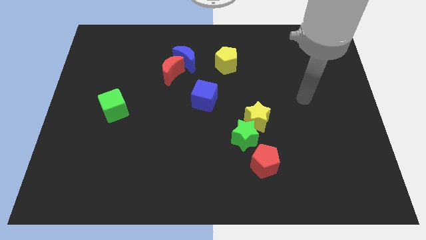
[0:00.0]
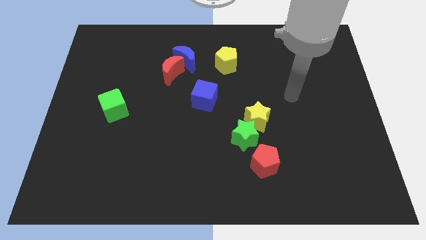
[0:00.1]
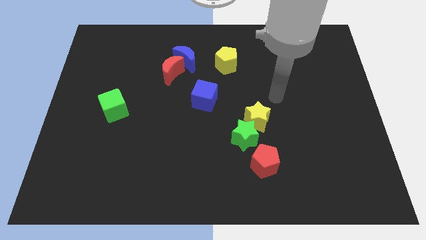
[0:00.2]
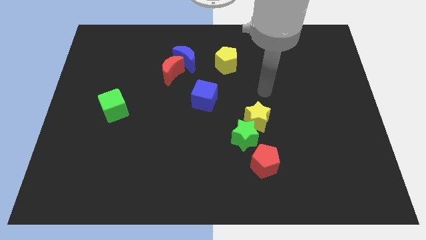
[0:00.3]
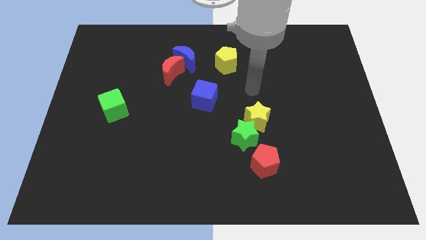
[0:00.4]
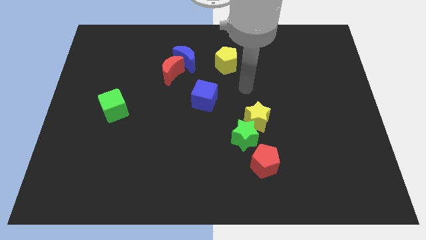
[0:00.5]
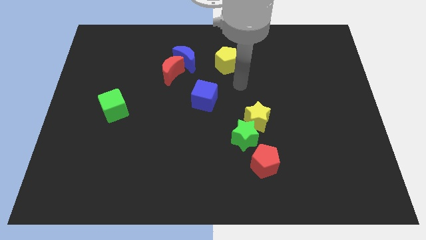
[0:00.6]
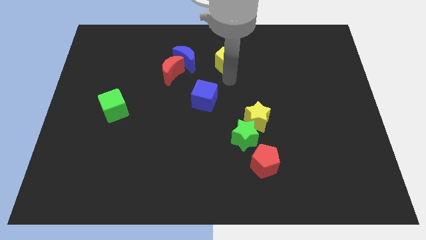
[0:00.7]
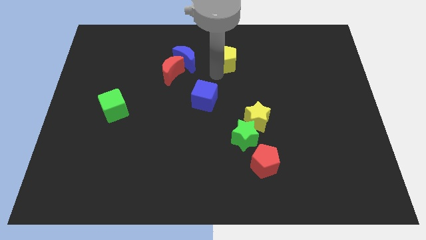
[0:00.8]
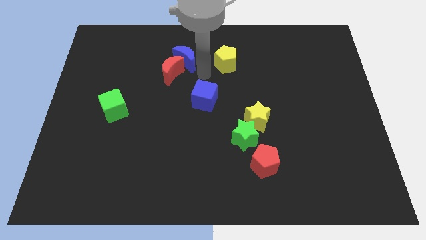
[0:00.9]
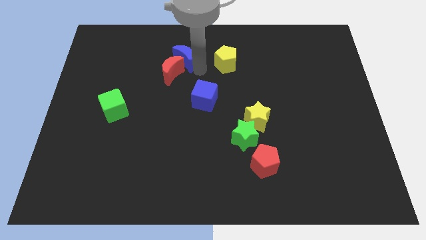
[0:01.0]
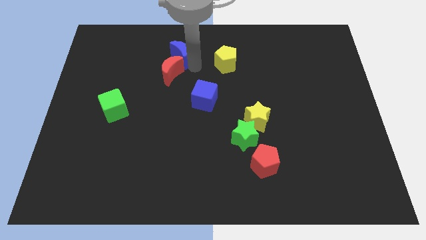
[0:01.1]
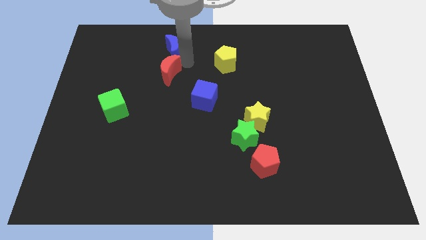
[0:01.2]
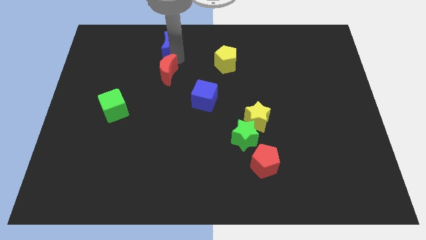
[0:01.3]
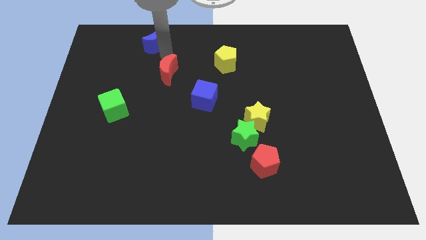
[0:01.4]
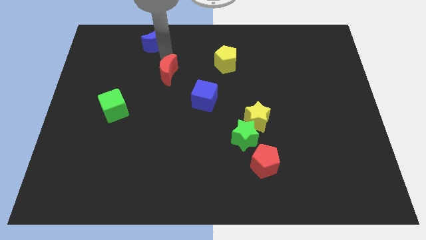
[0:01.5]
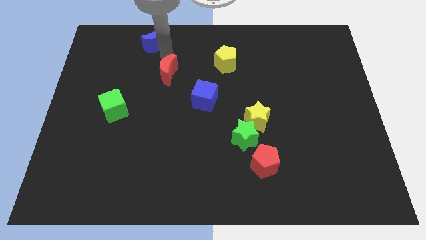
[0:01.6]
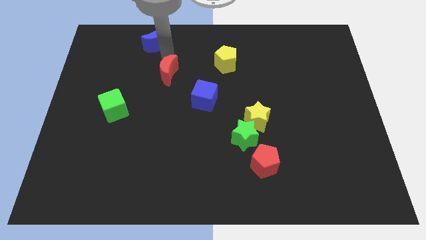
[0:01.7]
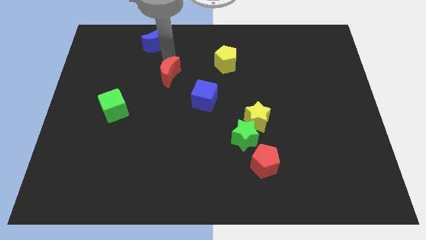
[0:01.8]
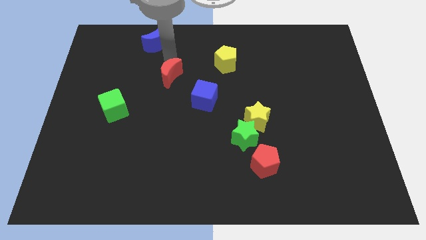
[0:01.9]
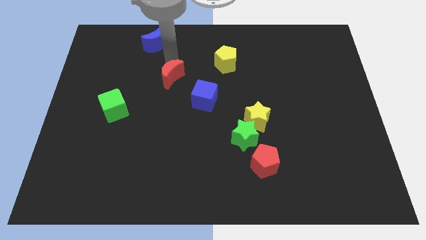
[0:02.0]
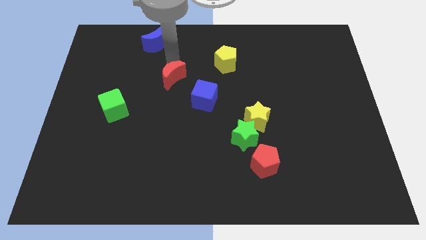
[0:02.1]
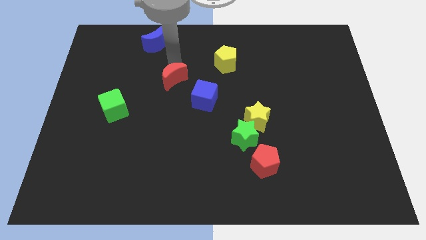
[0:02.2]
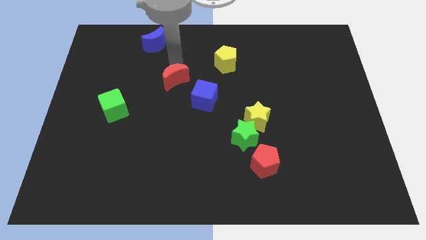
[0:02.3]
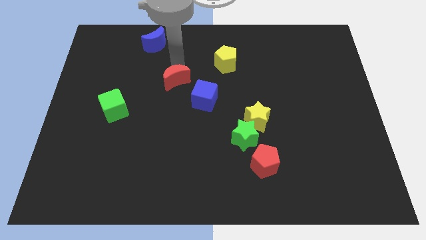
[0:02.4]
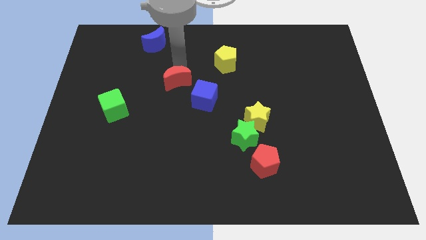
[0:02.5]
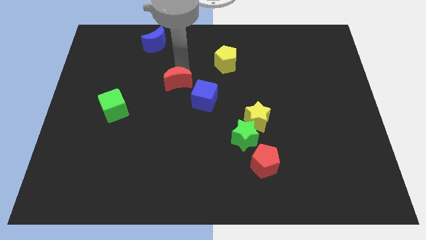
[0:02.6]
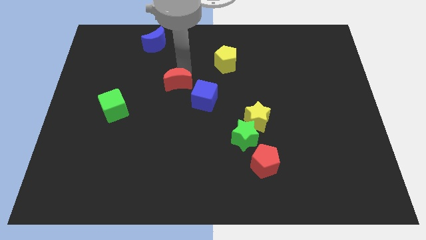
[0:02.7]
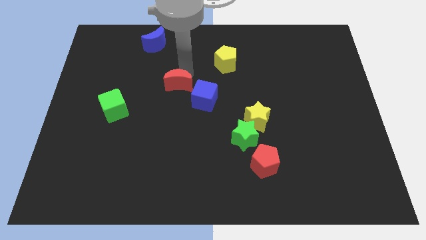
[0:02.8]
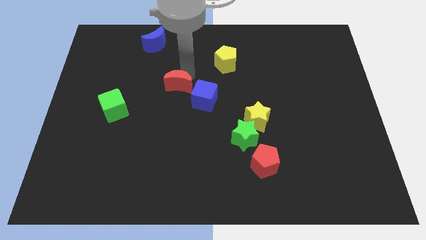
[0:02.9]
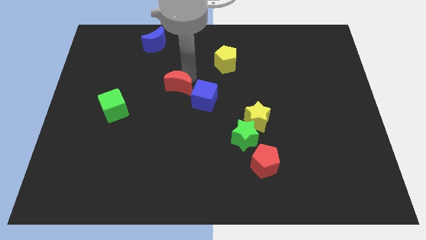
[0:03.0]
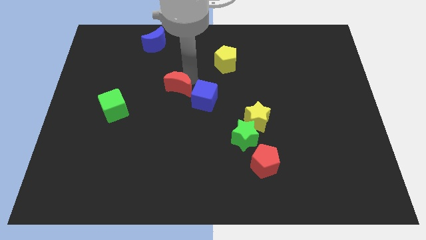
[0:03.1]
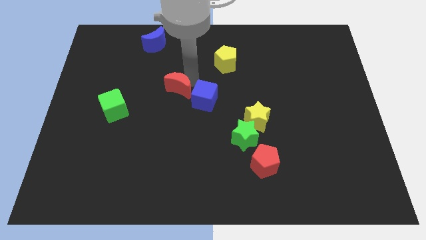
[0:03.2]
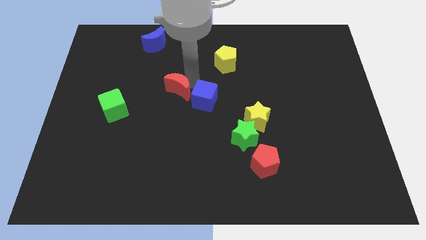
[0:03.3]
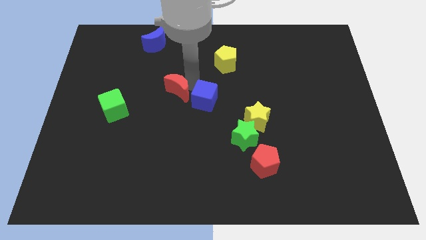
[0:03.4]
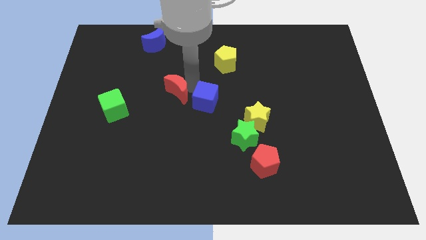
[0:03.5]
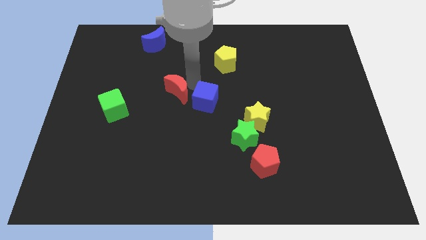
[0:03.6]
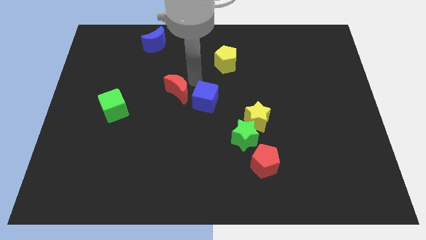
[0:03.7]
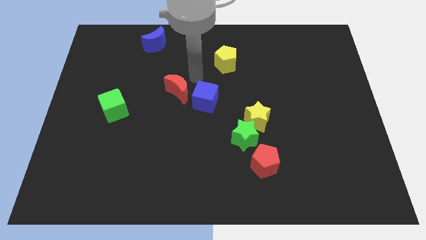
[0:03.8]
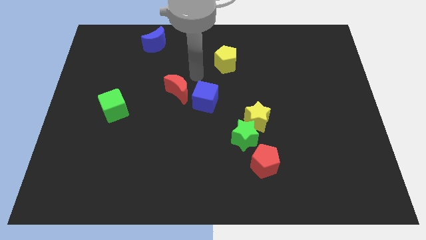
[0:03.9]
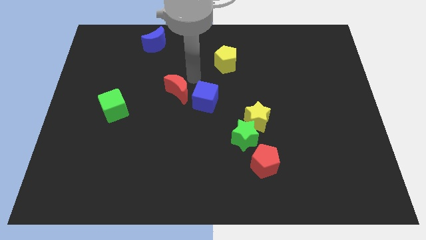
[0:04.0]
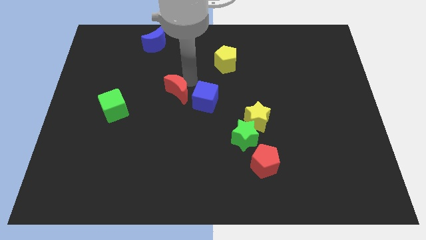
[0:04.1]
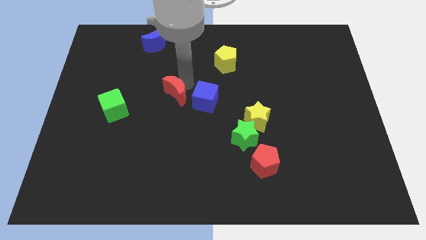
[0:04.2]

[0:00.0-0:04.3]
slightly move the red moon down

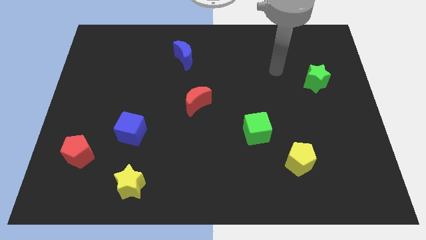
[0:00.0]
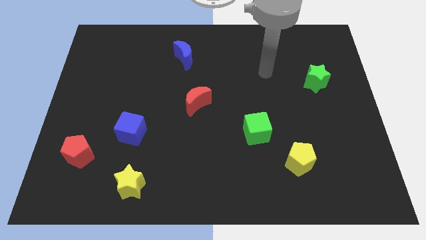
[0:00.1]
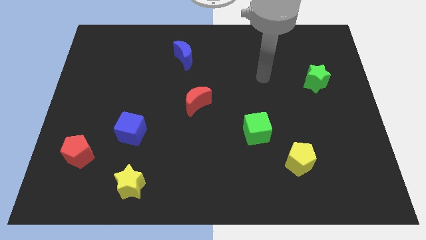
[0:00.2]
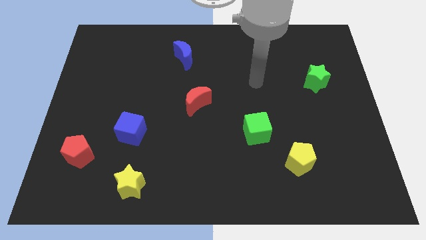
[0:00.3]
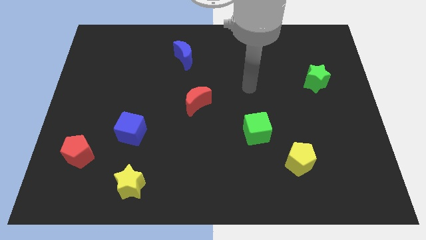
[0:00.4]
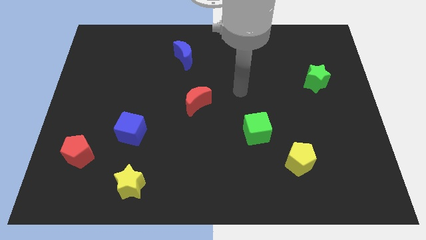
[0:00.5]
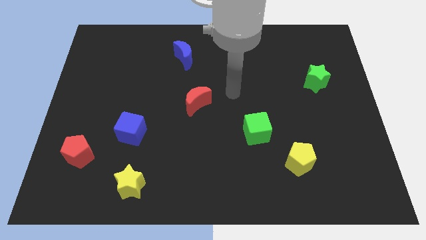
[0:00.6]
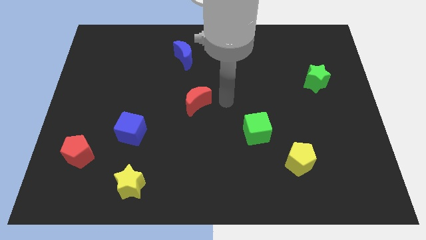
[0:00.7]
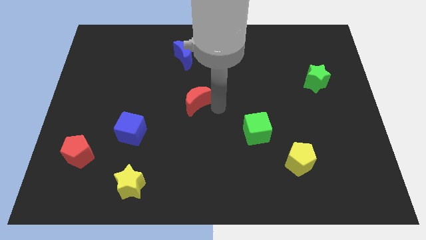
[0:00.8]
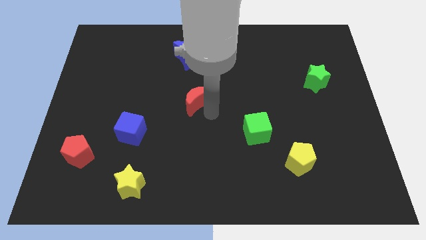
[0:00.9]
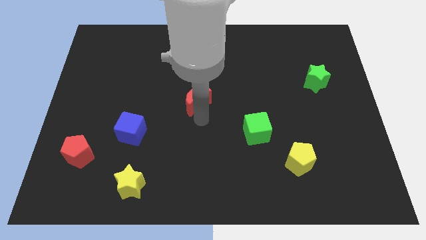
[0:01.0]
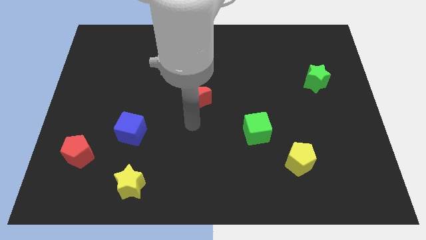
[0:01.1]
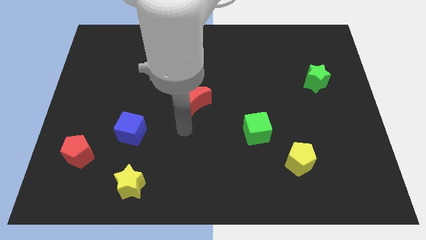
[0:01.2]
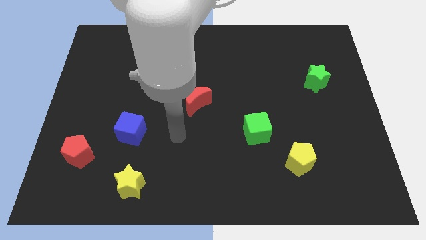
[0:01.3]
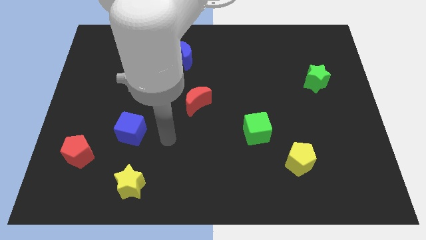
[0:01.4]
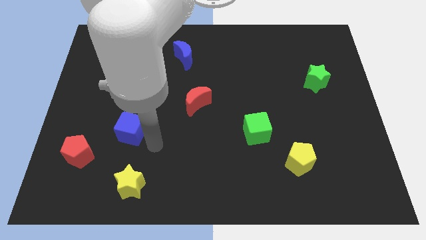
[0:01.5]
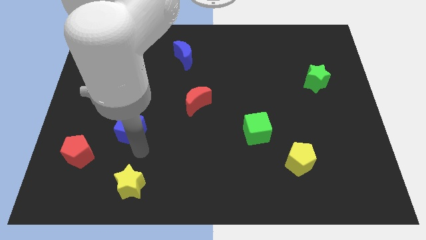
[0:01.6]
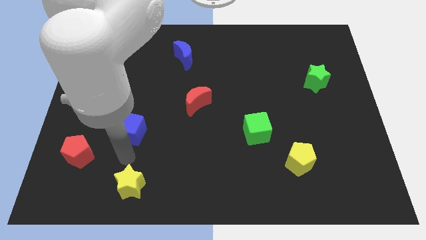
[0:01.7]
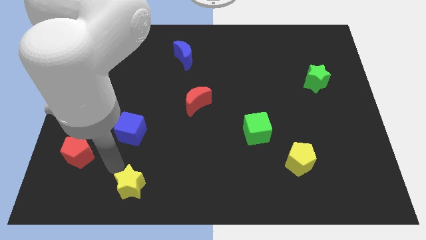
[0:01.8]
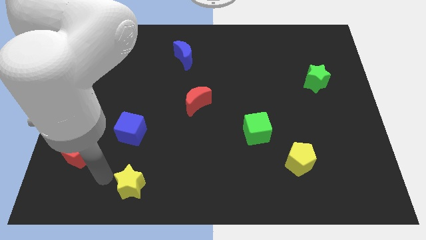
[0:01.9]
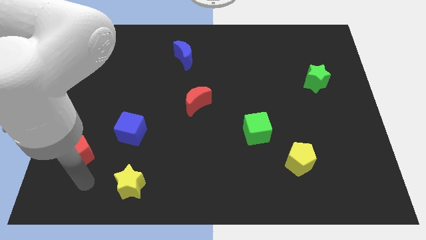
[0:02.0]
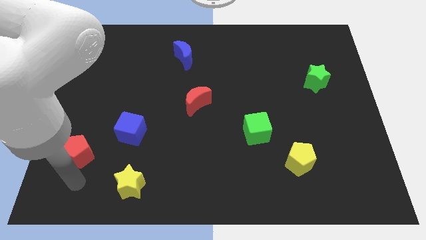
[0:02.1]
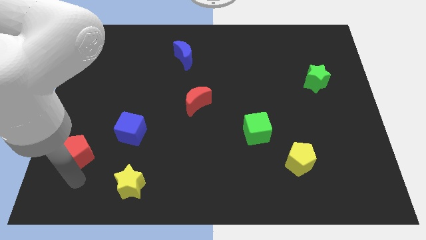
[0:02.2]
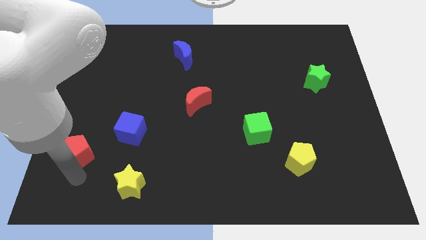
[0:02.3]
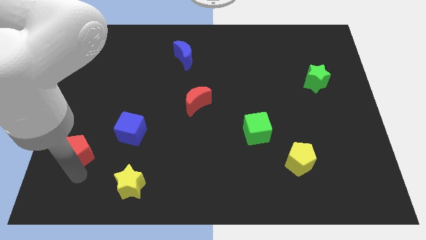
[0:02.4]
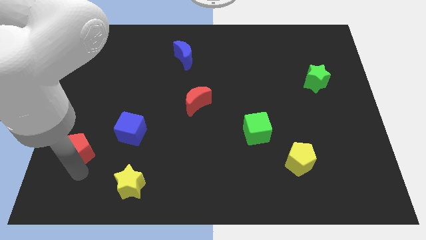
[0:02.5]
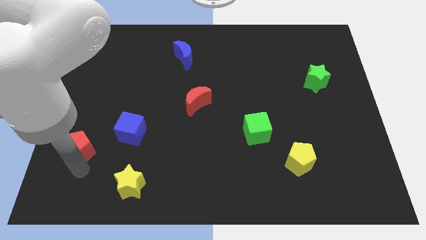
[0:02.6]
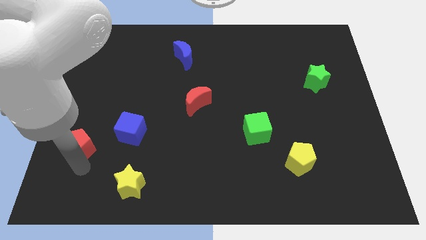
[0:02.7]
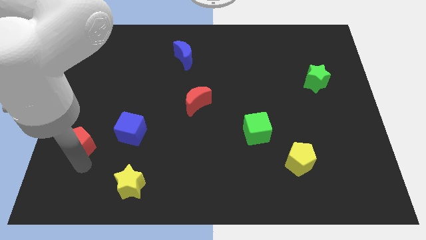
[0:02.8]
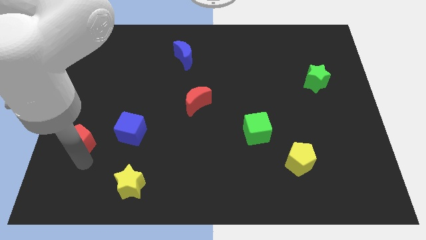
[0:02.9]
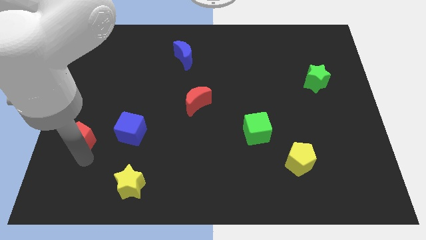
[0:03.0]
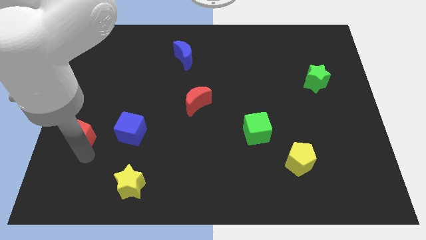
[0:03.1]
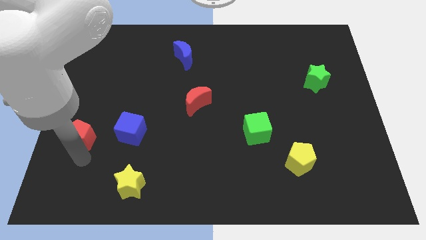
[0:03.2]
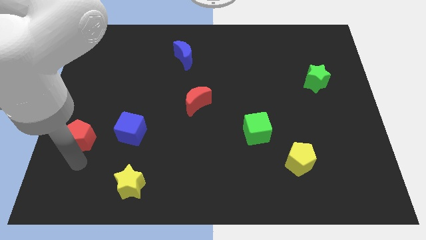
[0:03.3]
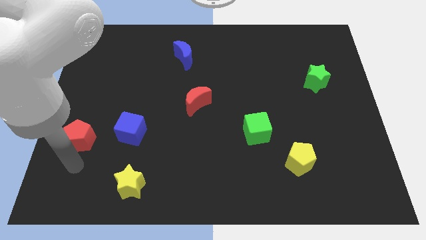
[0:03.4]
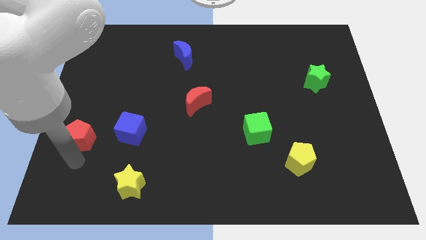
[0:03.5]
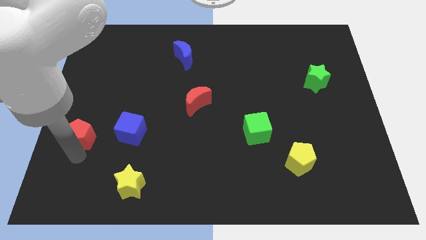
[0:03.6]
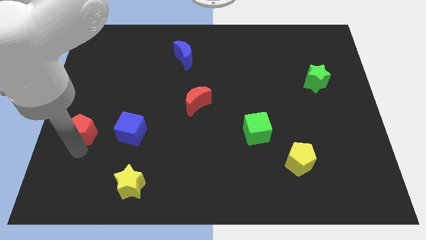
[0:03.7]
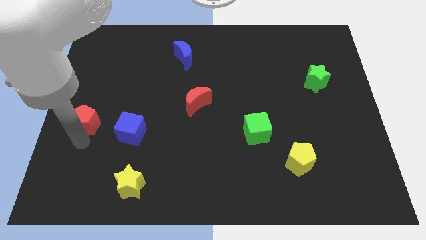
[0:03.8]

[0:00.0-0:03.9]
push the red pentagon up a little
